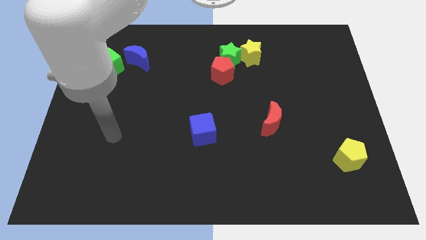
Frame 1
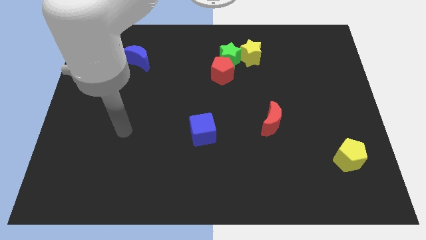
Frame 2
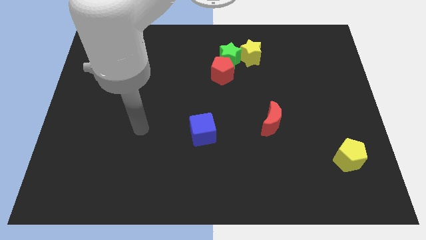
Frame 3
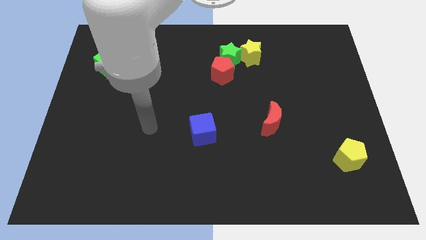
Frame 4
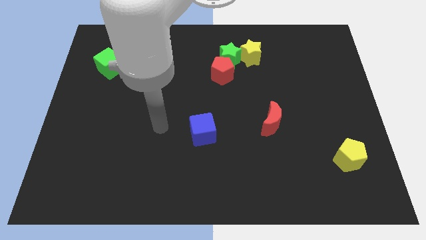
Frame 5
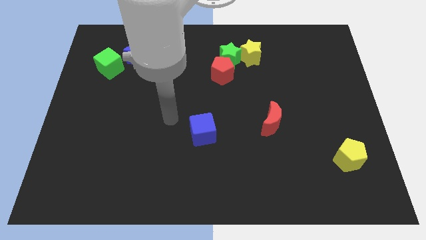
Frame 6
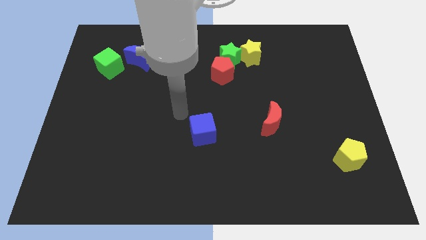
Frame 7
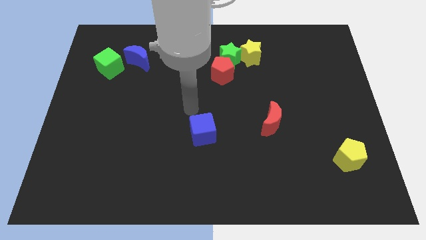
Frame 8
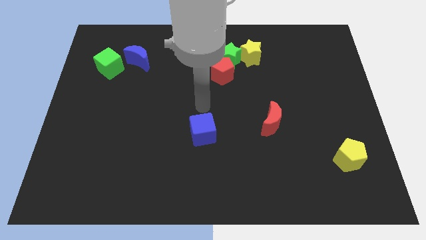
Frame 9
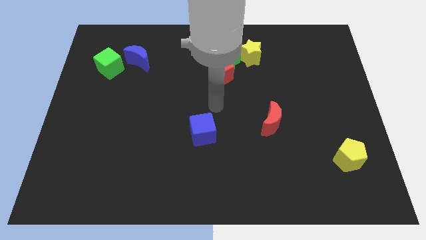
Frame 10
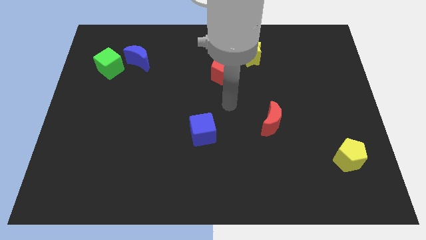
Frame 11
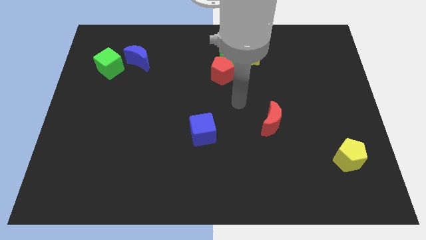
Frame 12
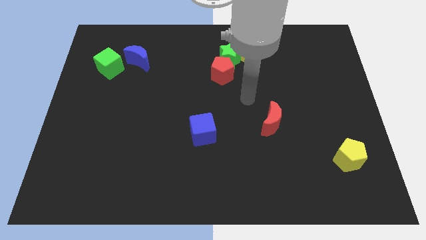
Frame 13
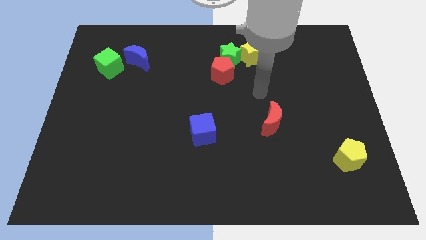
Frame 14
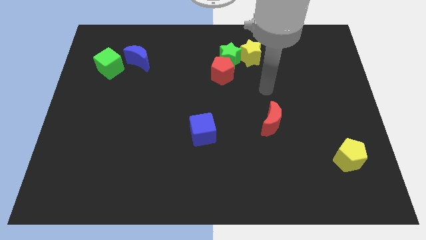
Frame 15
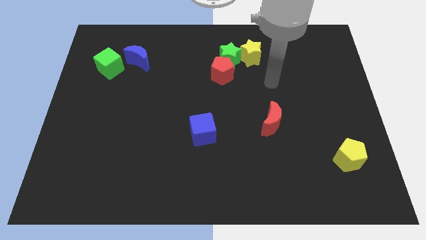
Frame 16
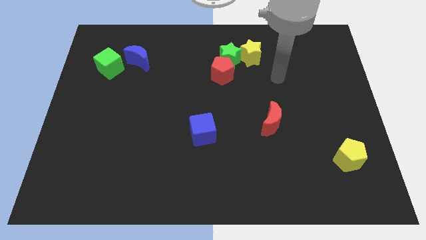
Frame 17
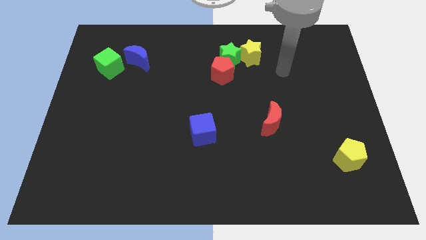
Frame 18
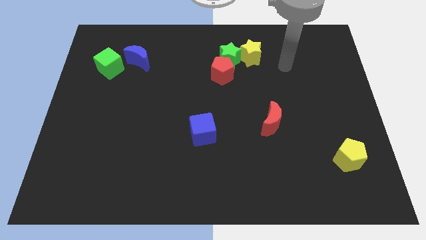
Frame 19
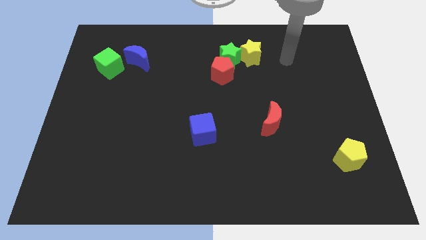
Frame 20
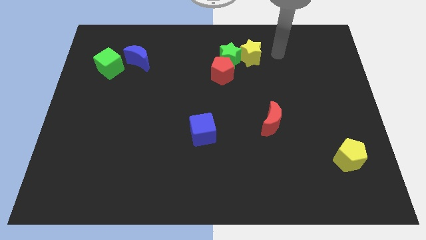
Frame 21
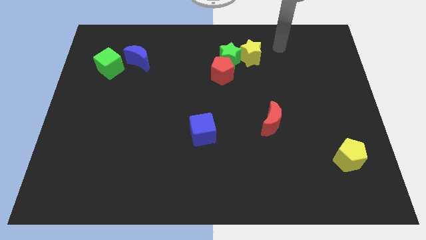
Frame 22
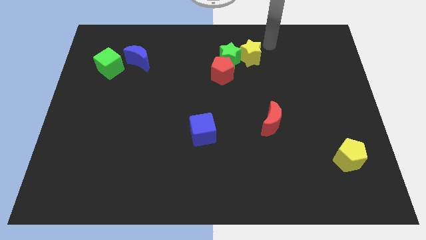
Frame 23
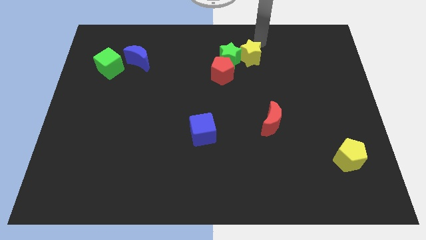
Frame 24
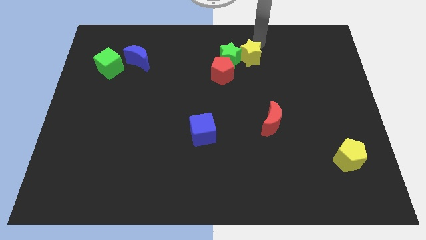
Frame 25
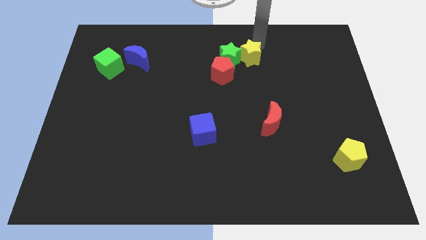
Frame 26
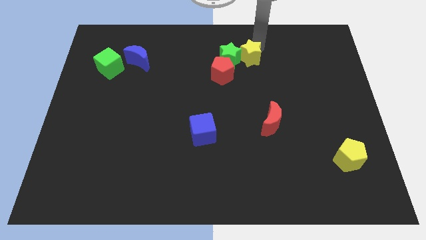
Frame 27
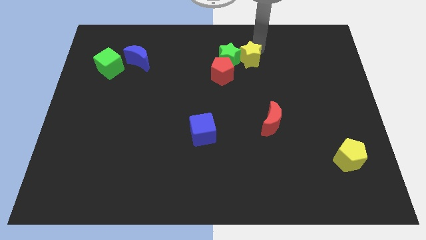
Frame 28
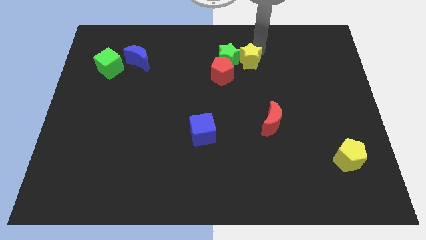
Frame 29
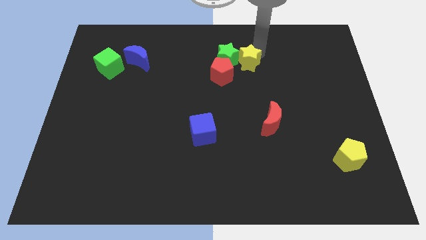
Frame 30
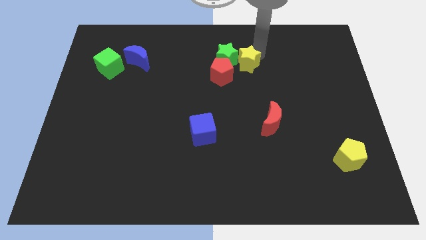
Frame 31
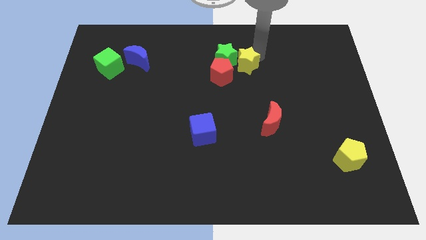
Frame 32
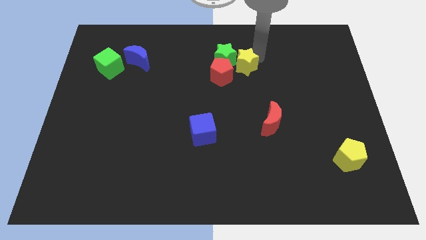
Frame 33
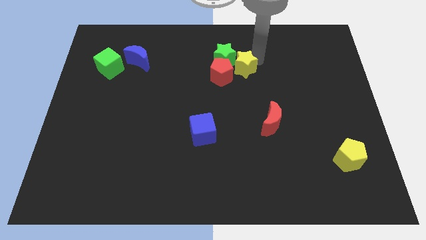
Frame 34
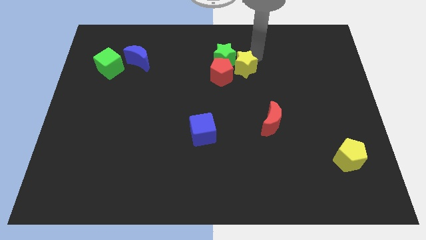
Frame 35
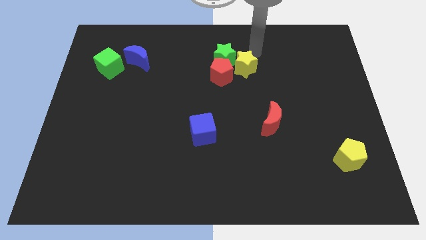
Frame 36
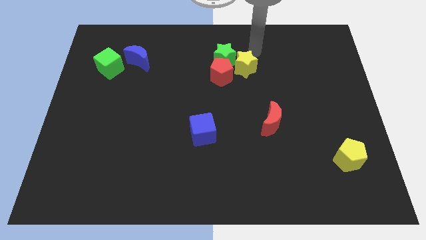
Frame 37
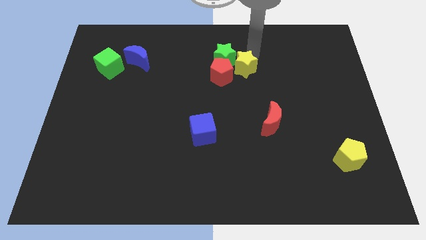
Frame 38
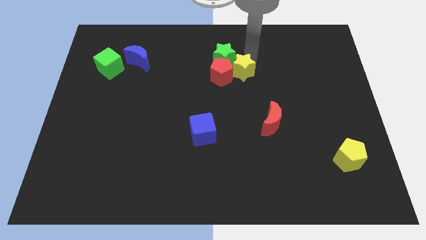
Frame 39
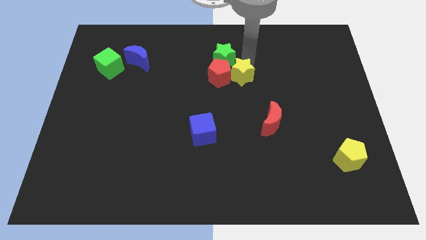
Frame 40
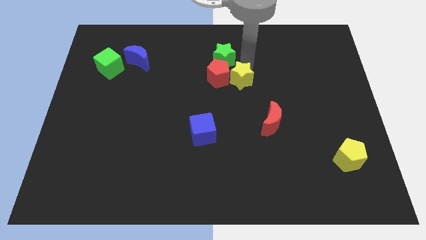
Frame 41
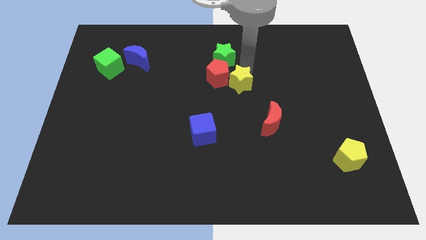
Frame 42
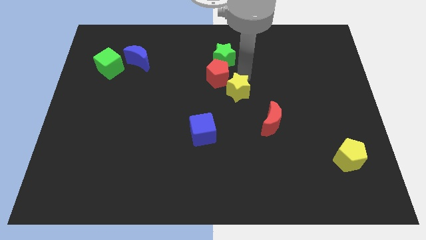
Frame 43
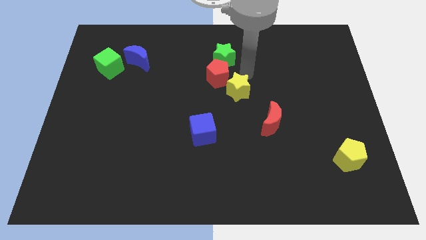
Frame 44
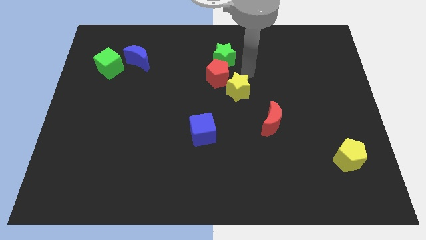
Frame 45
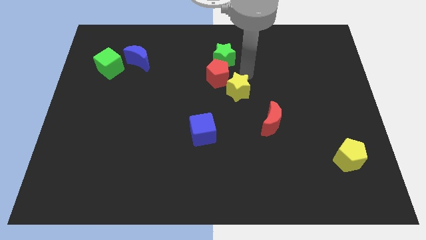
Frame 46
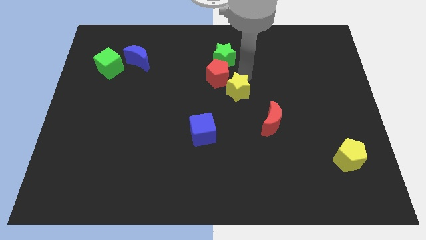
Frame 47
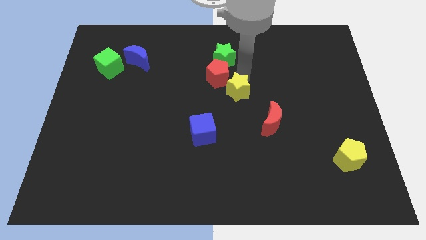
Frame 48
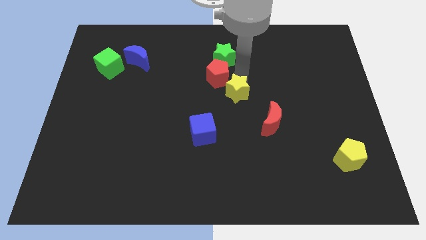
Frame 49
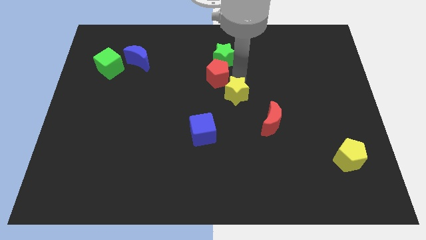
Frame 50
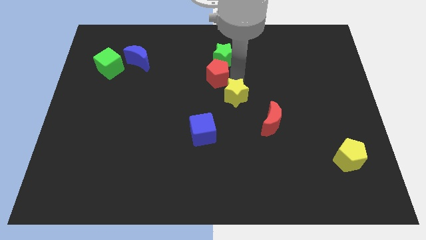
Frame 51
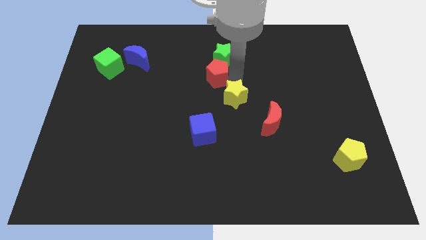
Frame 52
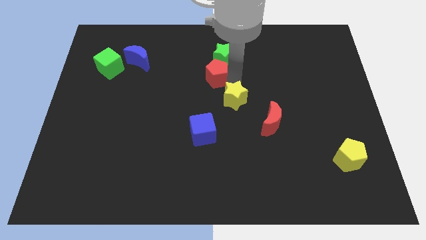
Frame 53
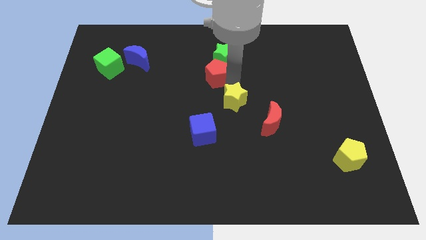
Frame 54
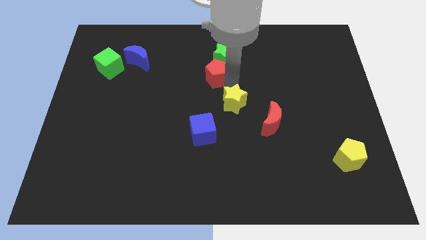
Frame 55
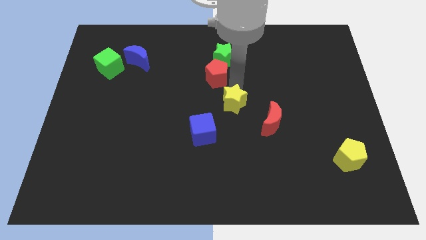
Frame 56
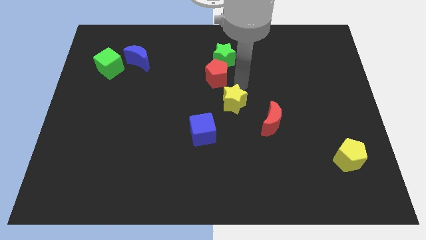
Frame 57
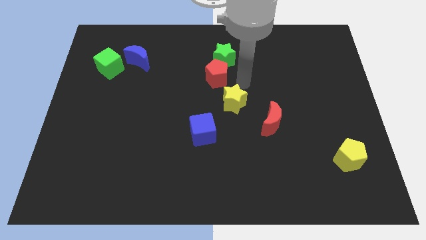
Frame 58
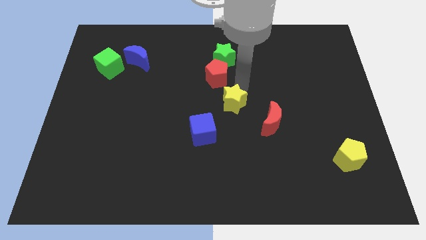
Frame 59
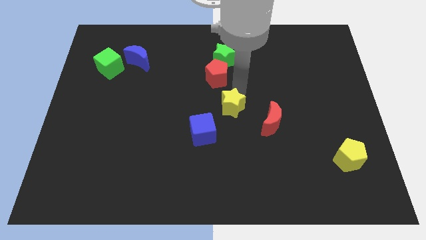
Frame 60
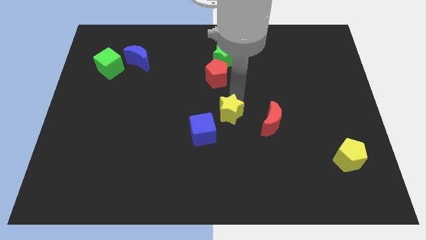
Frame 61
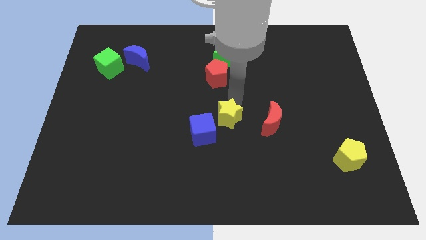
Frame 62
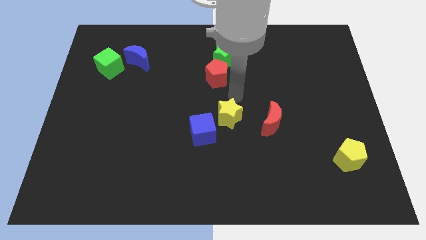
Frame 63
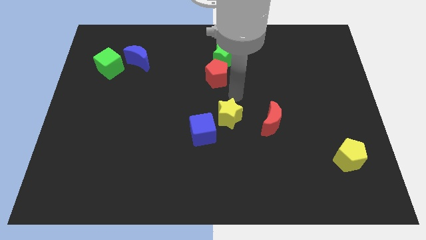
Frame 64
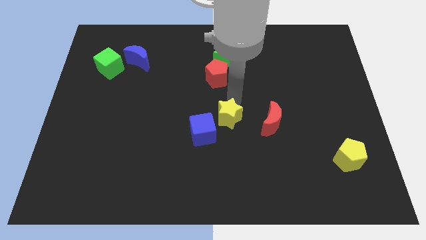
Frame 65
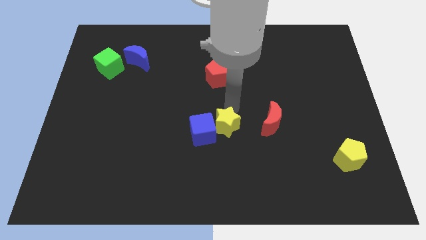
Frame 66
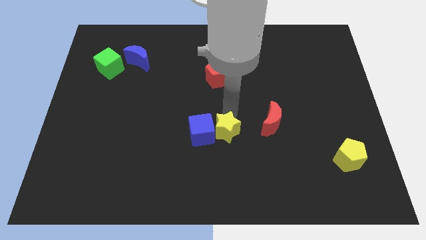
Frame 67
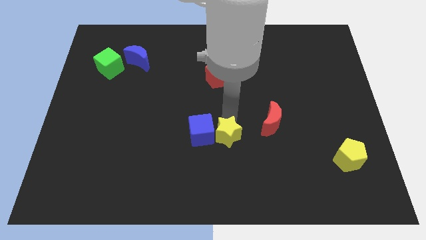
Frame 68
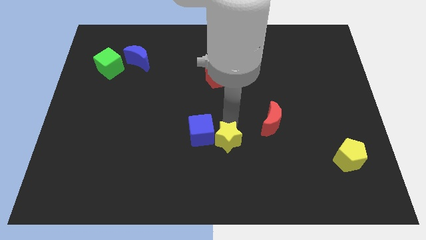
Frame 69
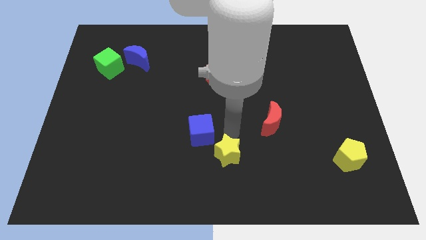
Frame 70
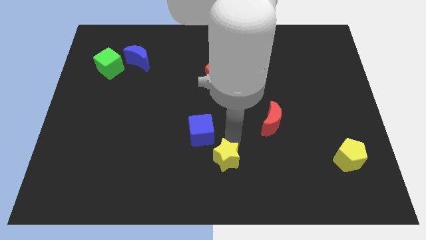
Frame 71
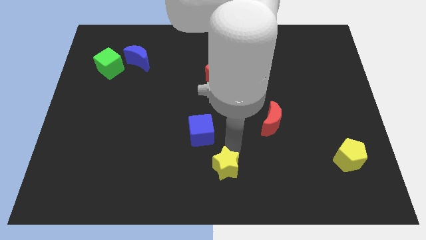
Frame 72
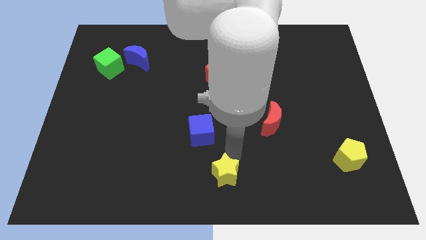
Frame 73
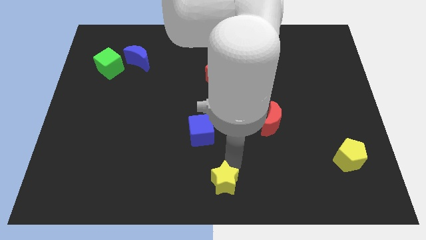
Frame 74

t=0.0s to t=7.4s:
push the yellow star to the bottom side of the blue cube
